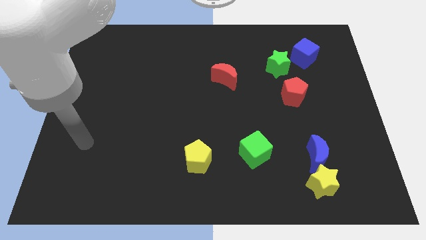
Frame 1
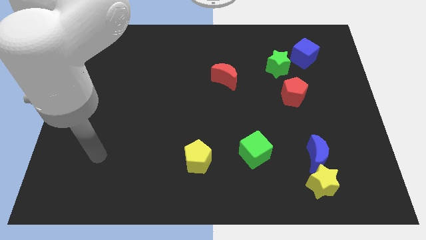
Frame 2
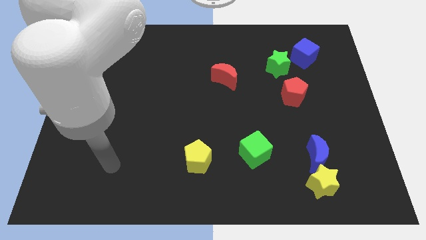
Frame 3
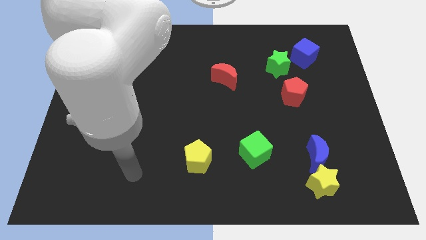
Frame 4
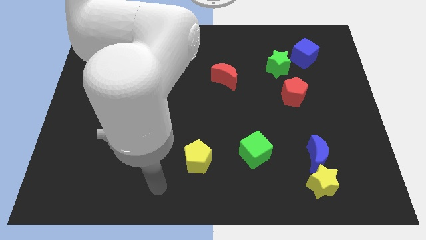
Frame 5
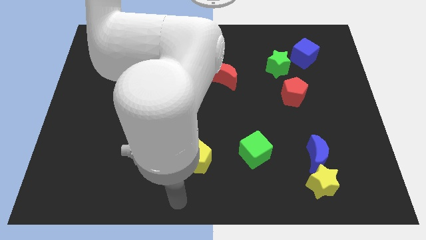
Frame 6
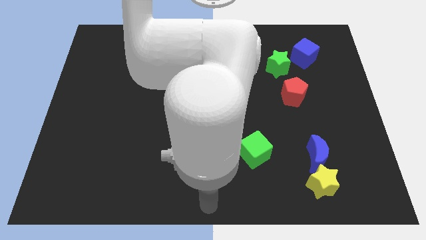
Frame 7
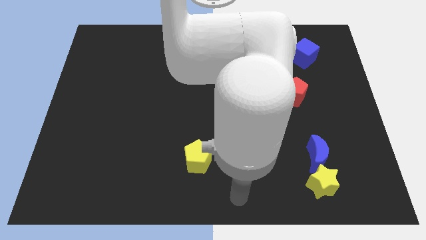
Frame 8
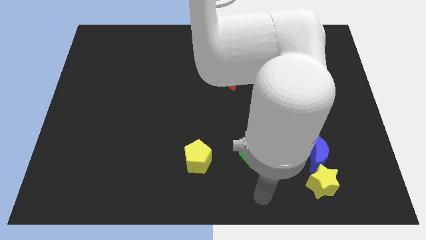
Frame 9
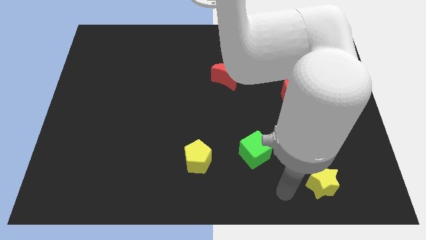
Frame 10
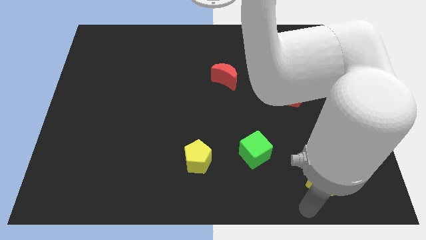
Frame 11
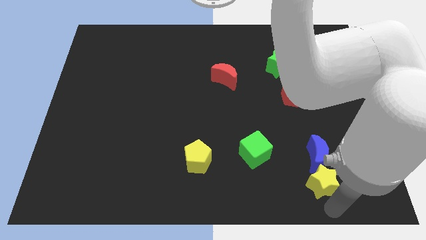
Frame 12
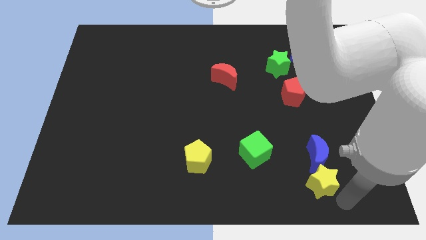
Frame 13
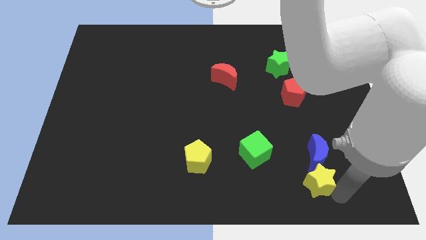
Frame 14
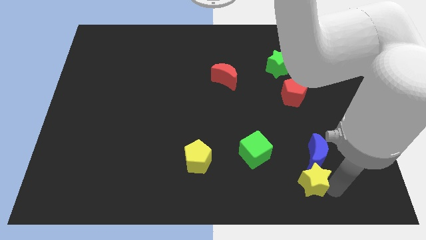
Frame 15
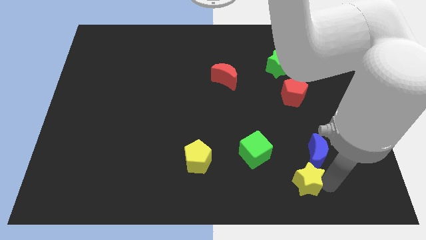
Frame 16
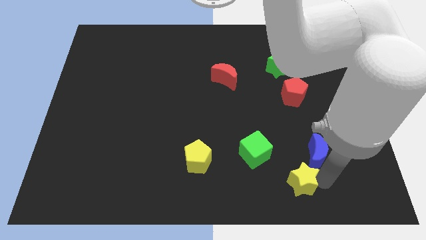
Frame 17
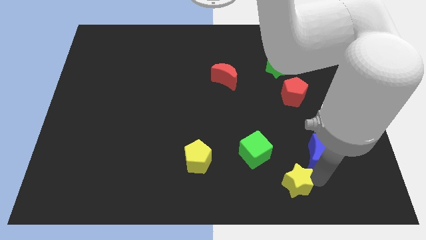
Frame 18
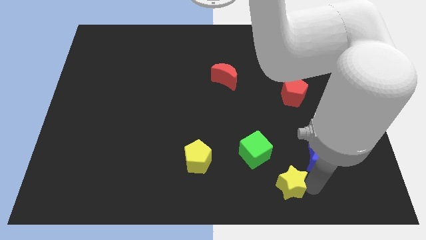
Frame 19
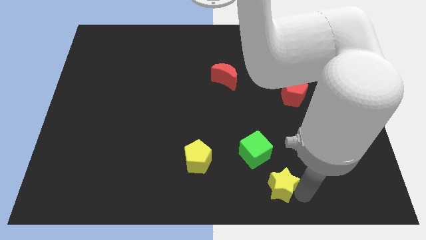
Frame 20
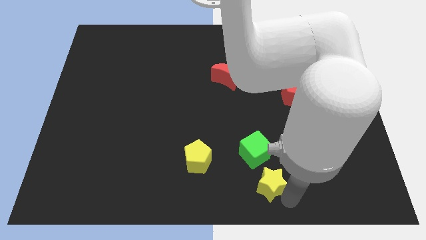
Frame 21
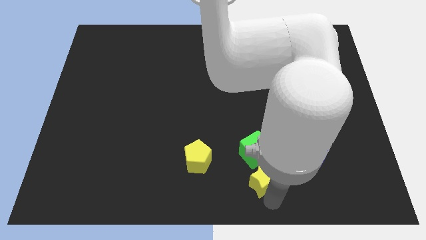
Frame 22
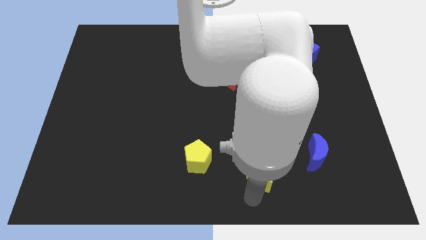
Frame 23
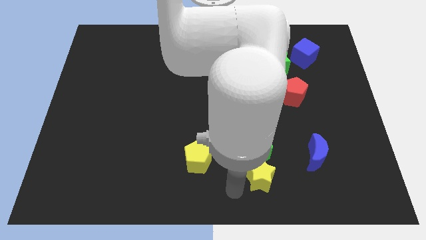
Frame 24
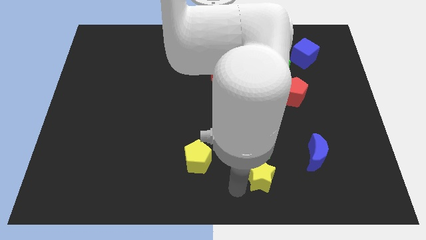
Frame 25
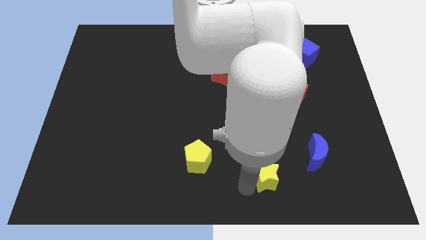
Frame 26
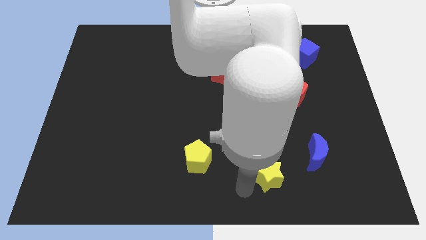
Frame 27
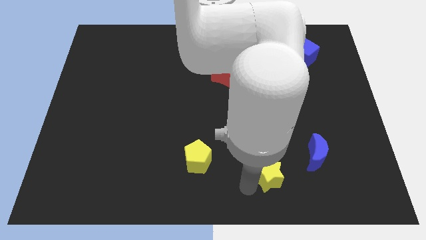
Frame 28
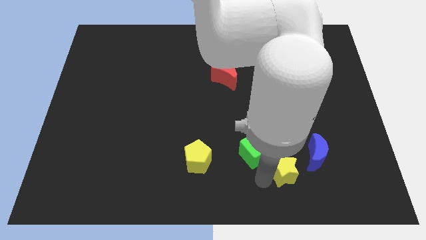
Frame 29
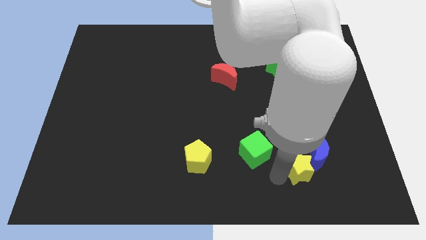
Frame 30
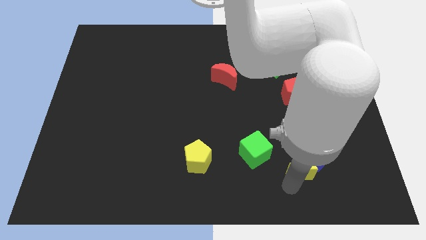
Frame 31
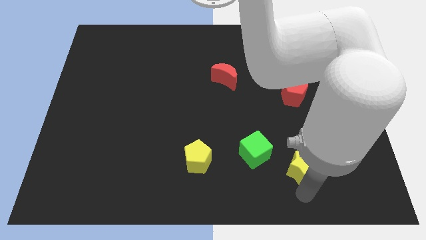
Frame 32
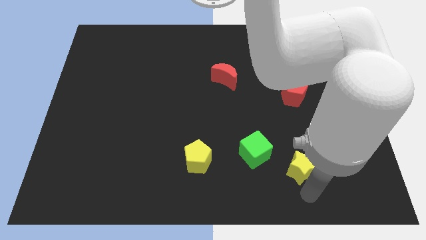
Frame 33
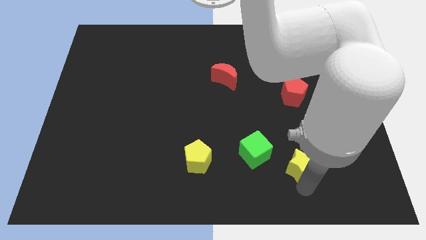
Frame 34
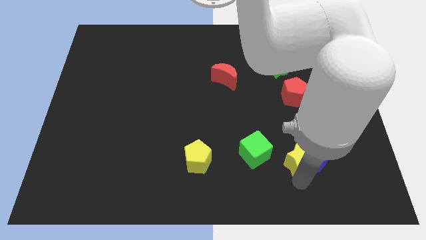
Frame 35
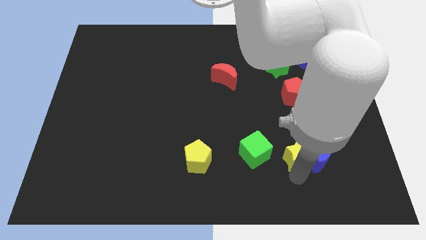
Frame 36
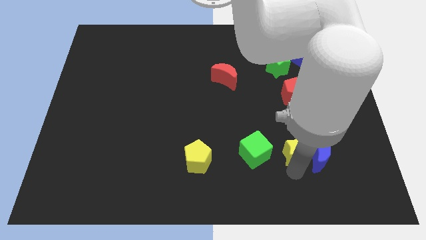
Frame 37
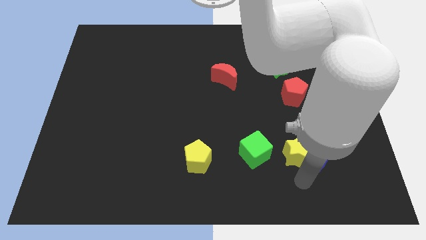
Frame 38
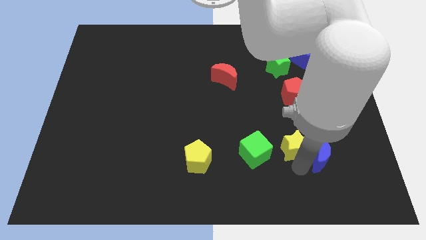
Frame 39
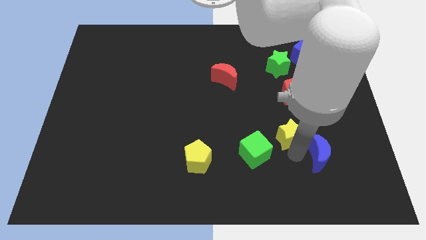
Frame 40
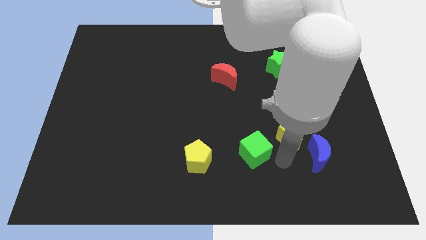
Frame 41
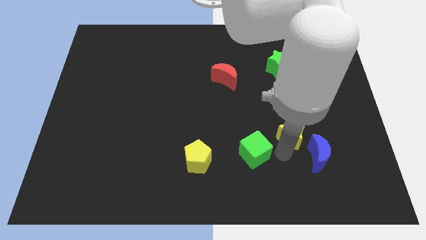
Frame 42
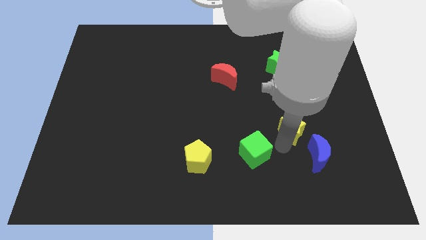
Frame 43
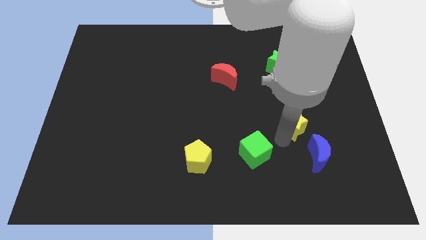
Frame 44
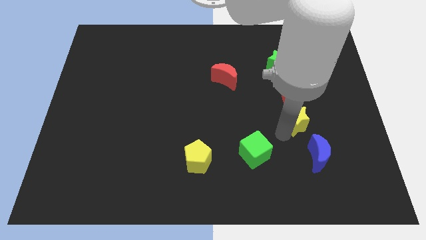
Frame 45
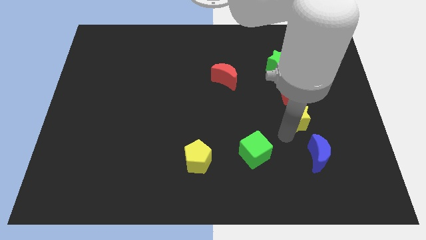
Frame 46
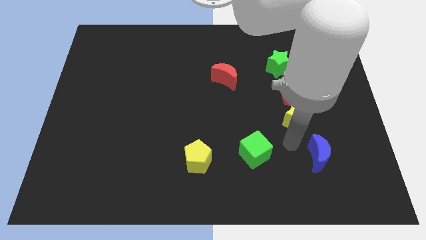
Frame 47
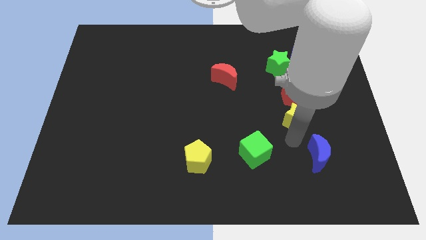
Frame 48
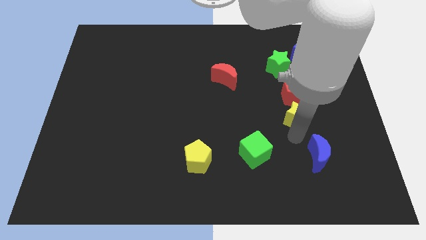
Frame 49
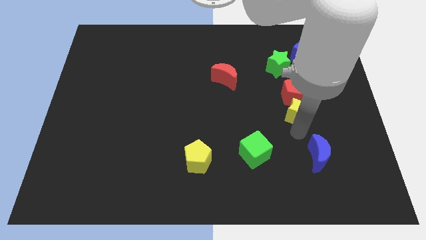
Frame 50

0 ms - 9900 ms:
slide the yellow star next to the red pentagon

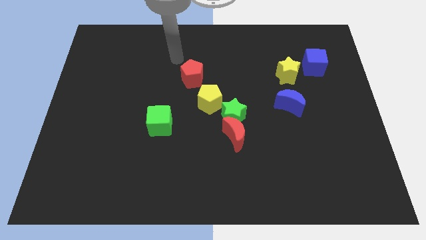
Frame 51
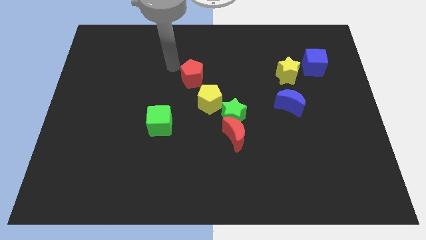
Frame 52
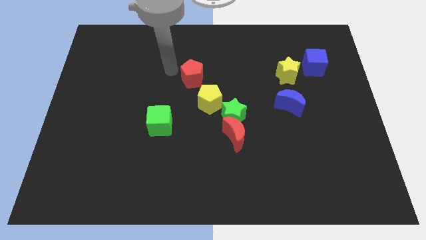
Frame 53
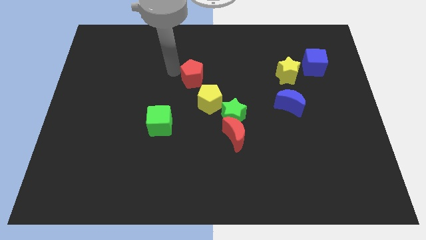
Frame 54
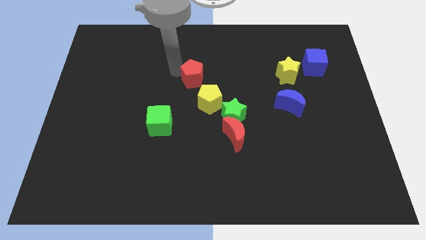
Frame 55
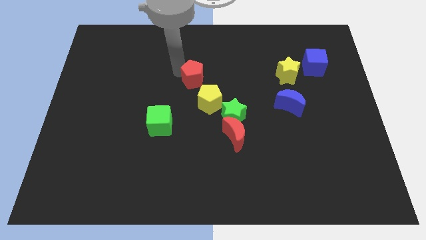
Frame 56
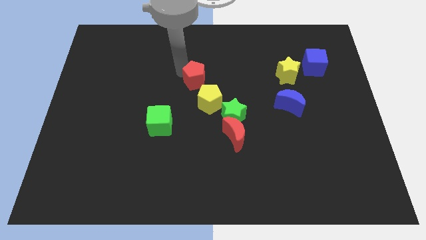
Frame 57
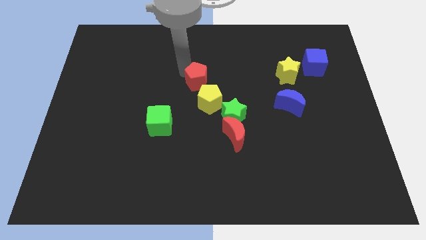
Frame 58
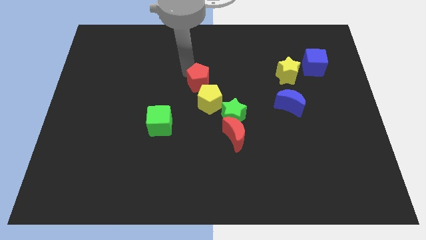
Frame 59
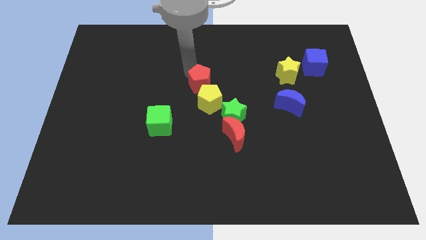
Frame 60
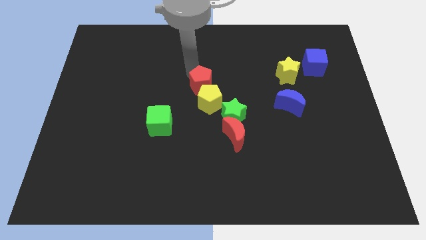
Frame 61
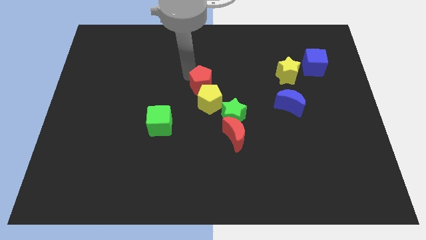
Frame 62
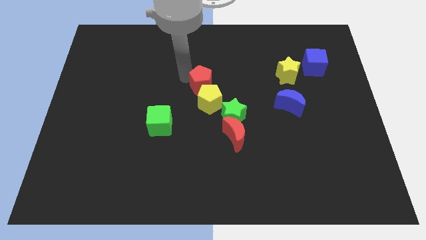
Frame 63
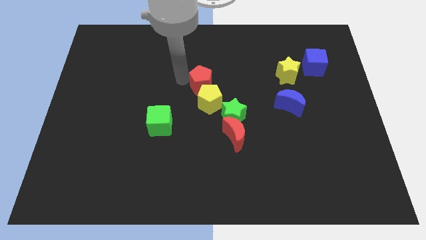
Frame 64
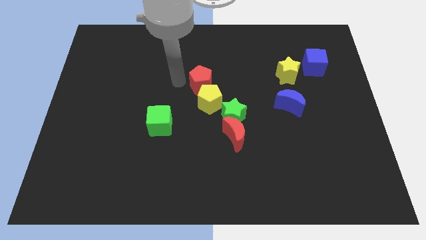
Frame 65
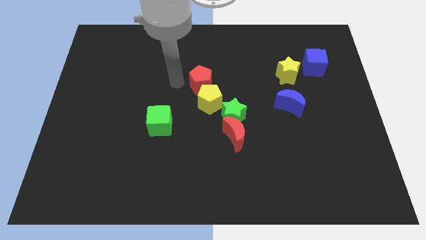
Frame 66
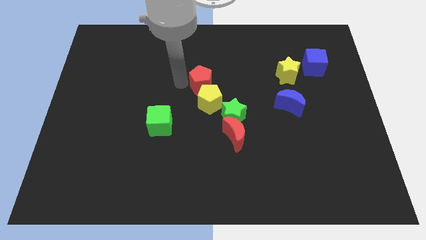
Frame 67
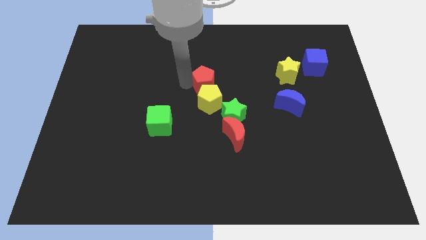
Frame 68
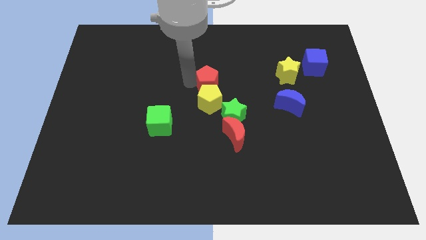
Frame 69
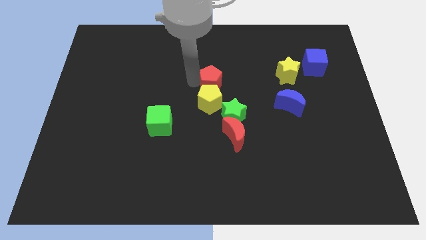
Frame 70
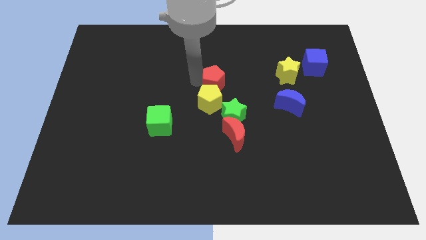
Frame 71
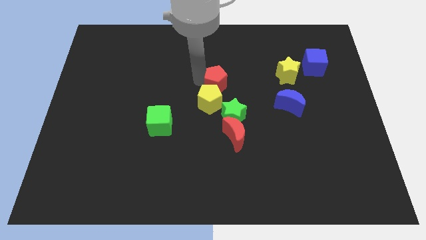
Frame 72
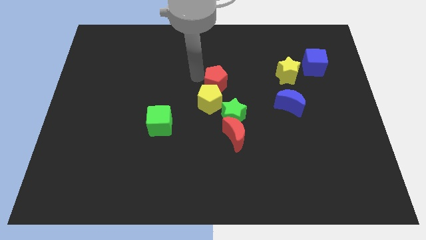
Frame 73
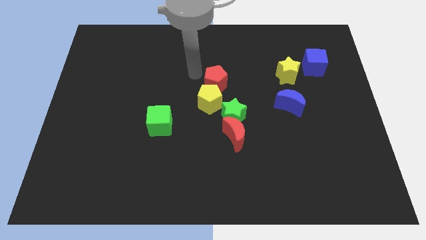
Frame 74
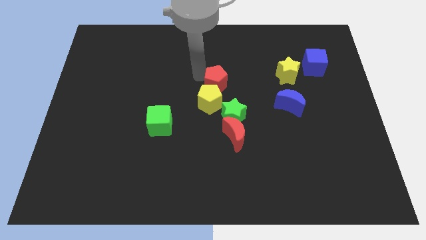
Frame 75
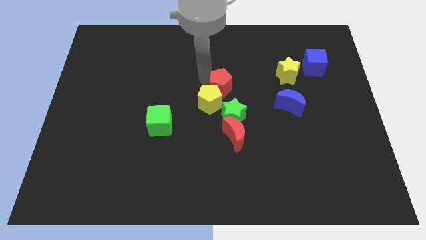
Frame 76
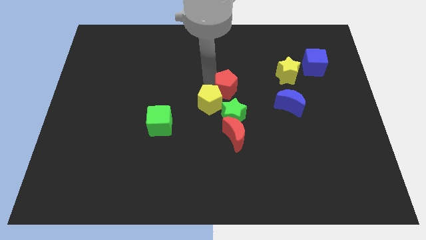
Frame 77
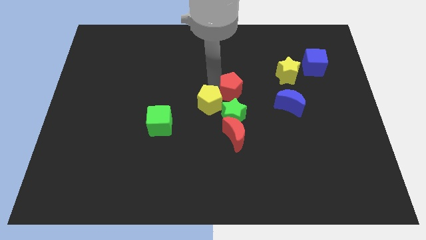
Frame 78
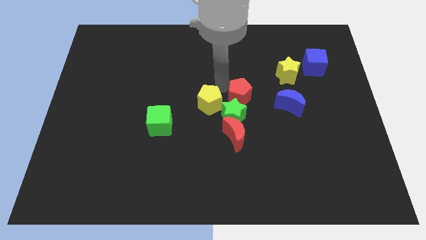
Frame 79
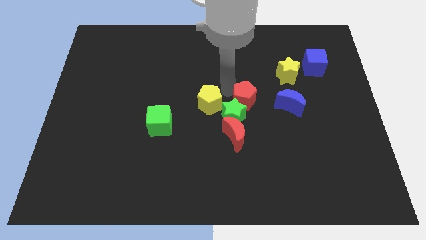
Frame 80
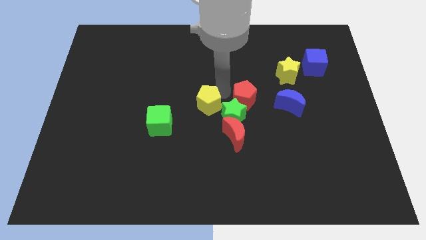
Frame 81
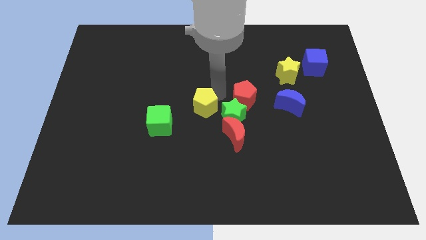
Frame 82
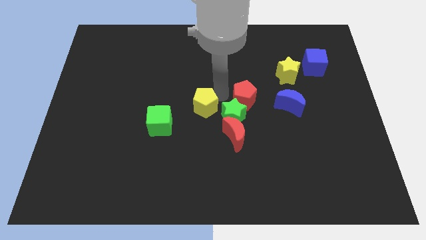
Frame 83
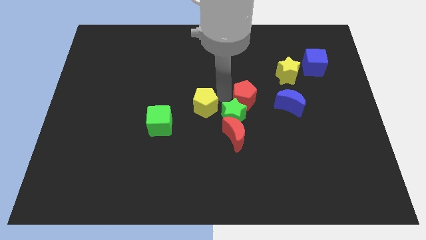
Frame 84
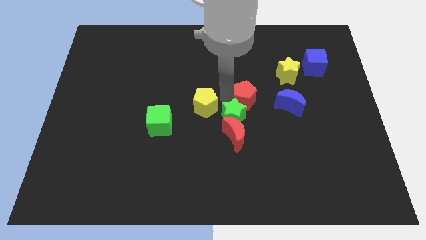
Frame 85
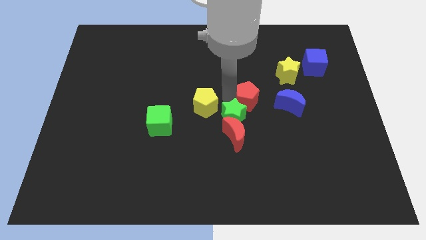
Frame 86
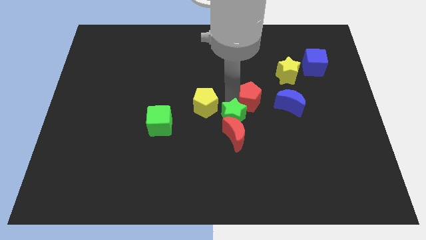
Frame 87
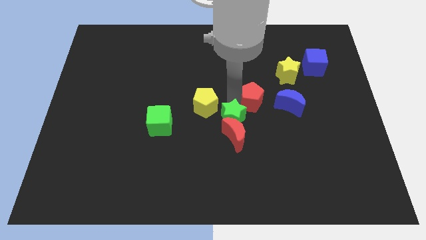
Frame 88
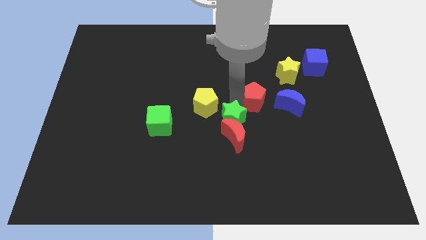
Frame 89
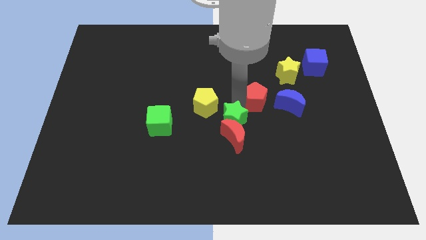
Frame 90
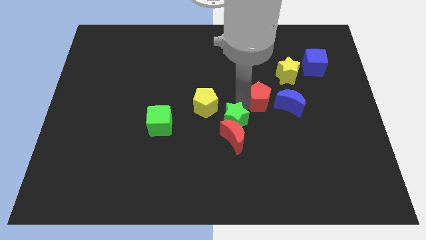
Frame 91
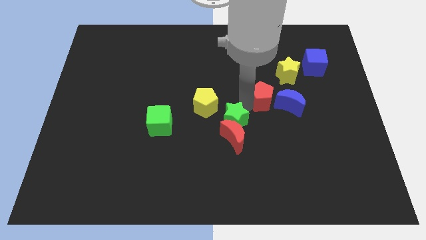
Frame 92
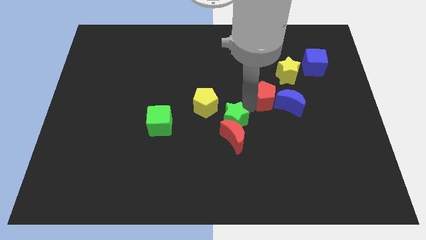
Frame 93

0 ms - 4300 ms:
put the red pentagon next to the blue moon
